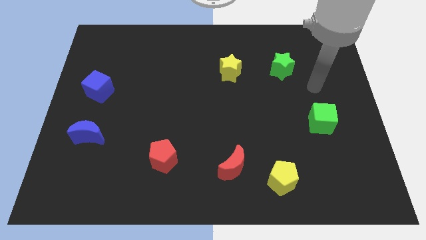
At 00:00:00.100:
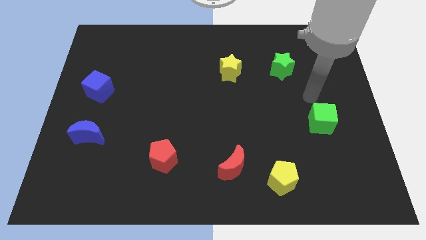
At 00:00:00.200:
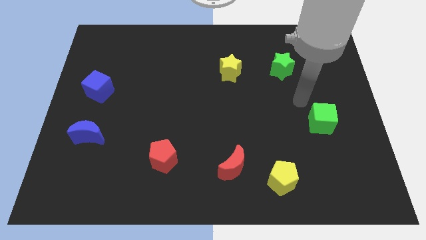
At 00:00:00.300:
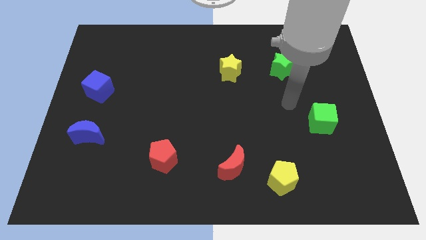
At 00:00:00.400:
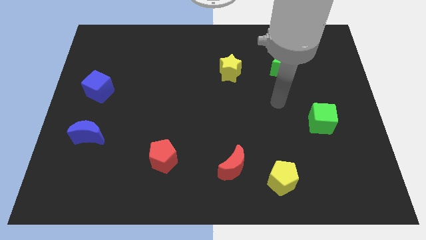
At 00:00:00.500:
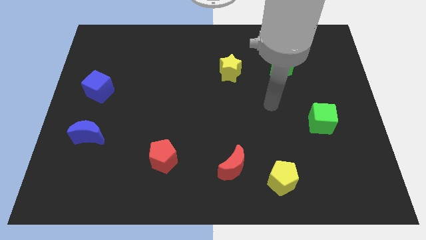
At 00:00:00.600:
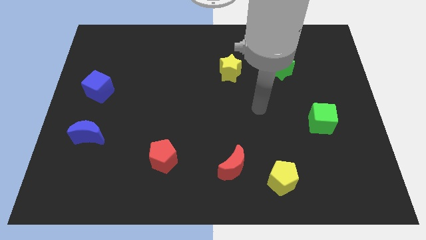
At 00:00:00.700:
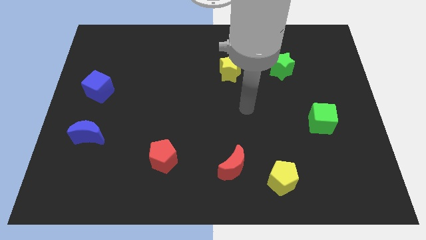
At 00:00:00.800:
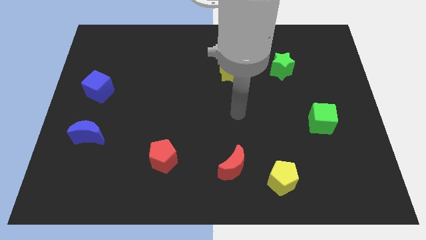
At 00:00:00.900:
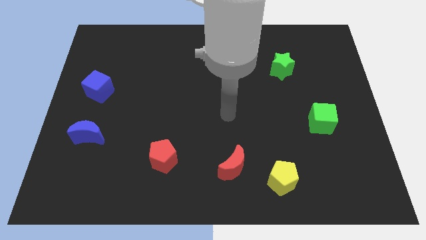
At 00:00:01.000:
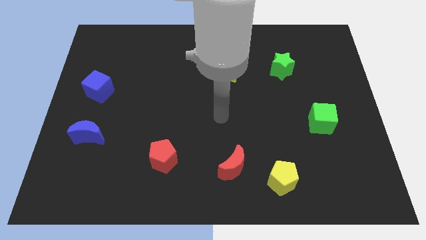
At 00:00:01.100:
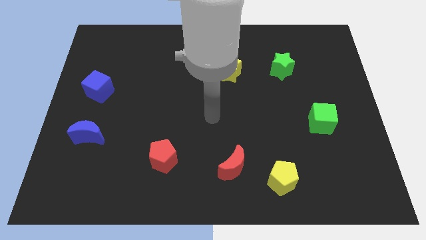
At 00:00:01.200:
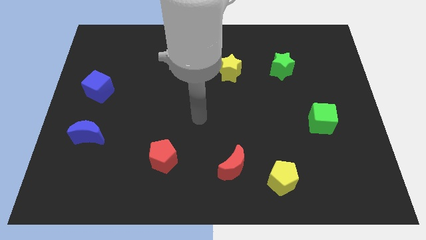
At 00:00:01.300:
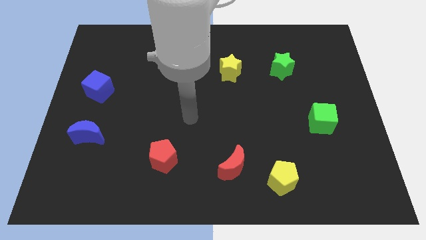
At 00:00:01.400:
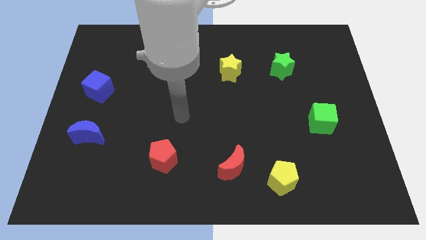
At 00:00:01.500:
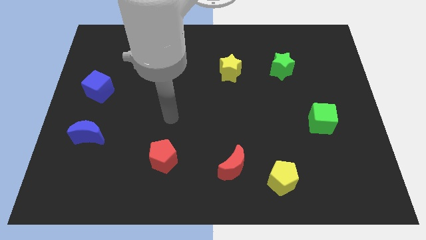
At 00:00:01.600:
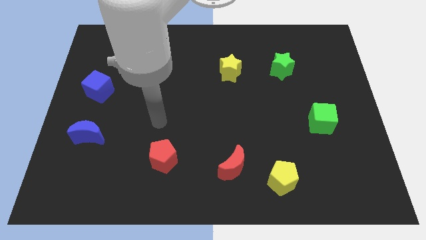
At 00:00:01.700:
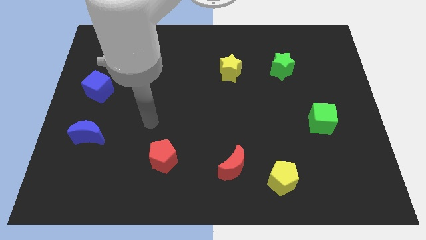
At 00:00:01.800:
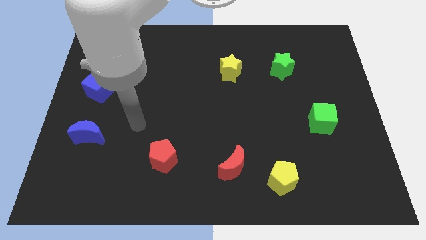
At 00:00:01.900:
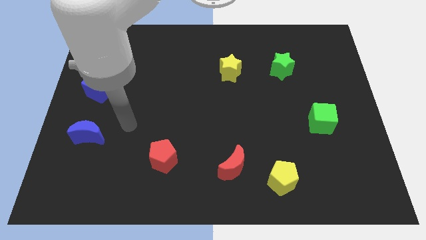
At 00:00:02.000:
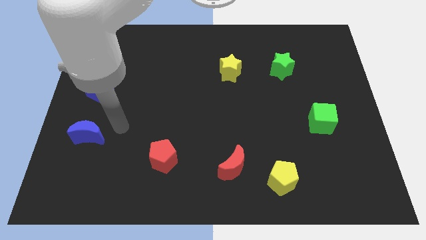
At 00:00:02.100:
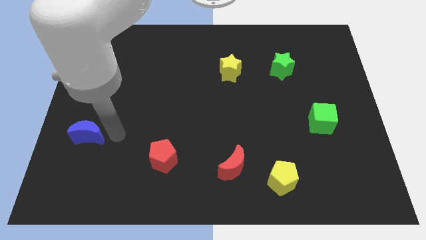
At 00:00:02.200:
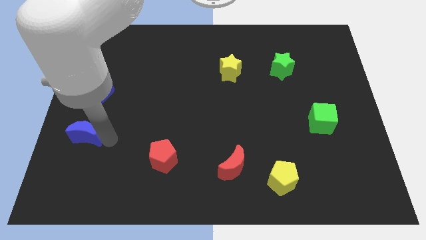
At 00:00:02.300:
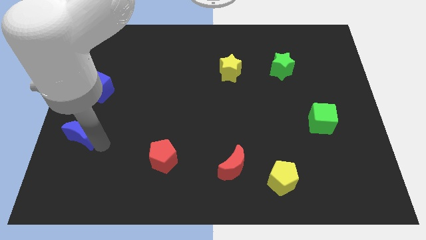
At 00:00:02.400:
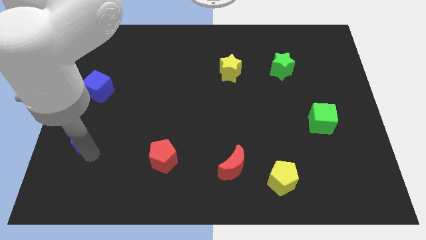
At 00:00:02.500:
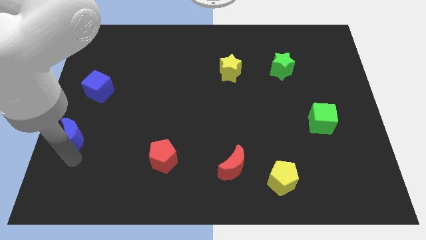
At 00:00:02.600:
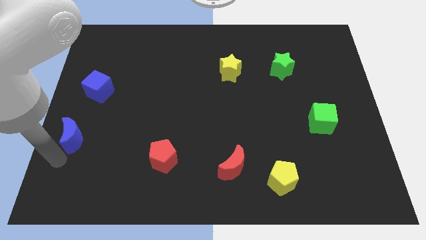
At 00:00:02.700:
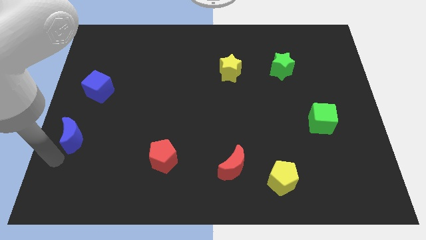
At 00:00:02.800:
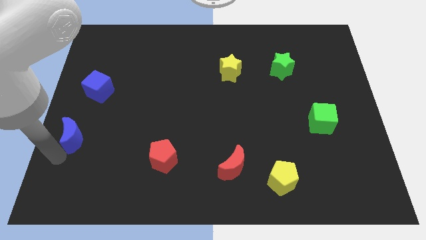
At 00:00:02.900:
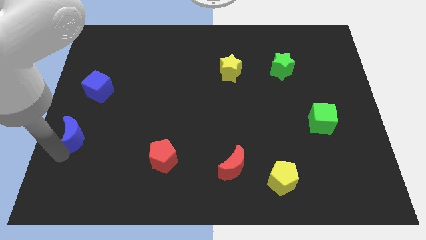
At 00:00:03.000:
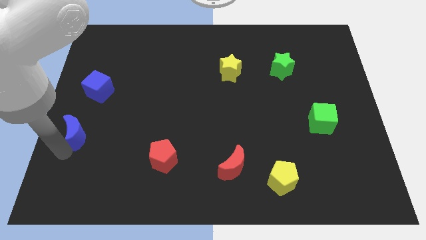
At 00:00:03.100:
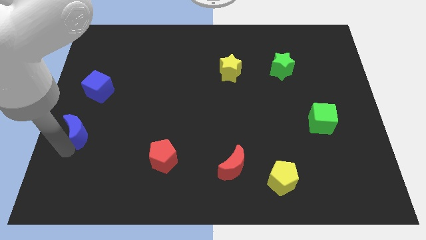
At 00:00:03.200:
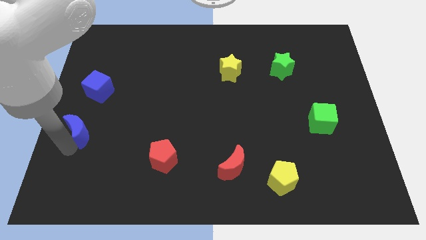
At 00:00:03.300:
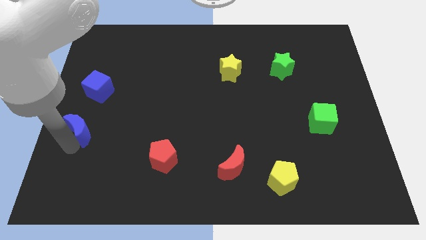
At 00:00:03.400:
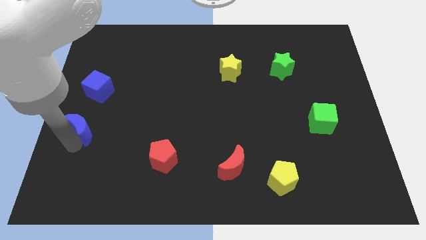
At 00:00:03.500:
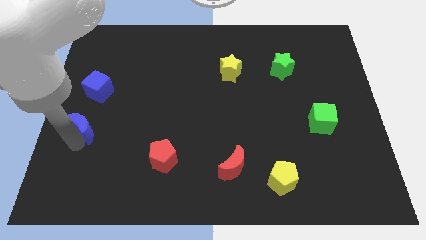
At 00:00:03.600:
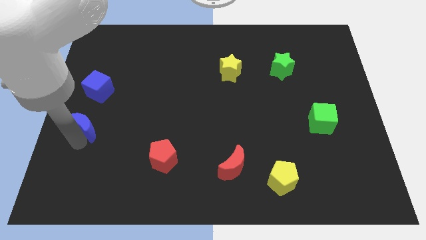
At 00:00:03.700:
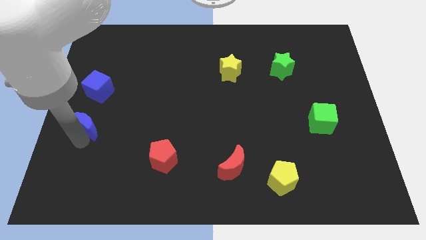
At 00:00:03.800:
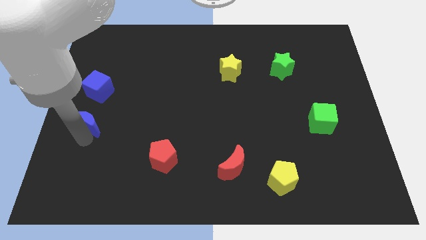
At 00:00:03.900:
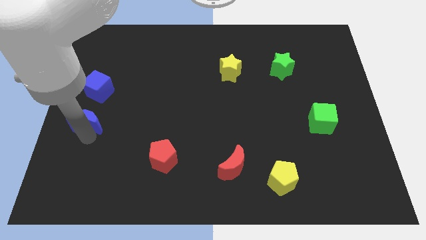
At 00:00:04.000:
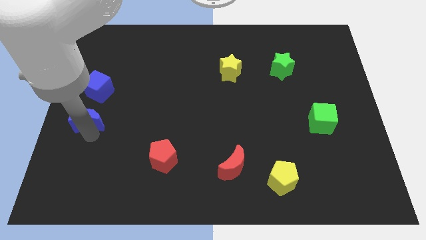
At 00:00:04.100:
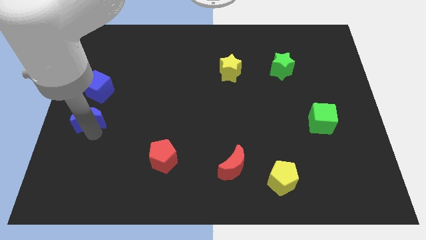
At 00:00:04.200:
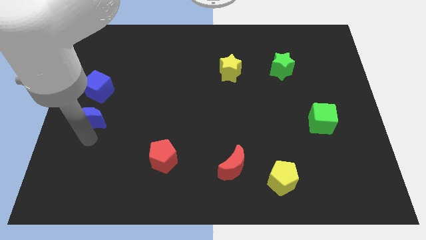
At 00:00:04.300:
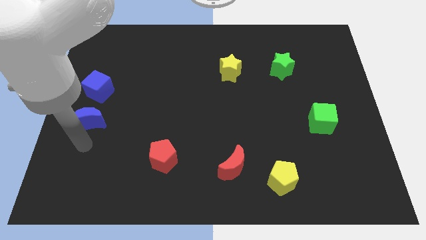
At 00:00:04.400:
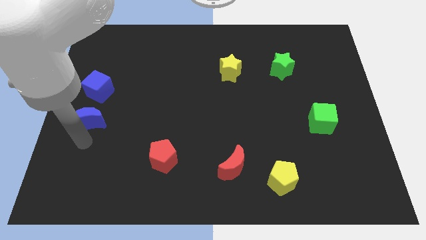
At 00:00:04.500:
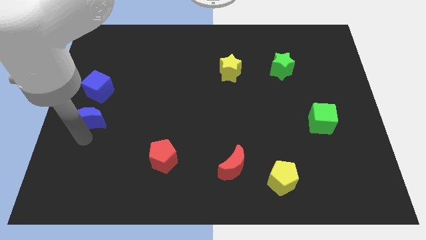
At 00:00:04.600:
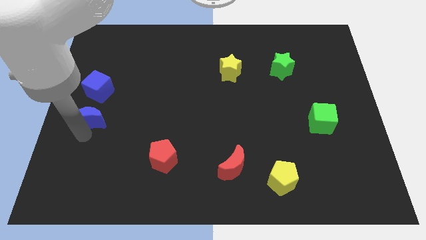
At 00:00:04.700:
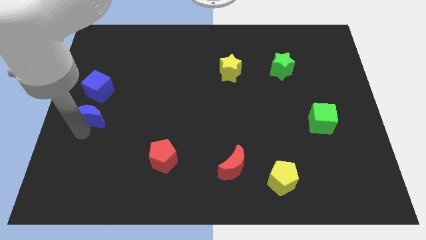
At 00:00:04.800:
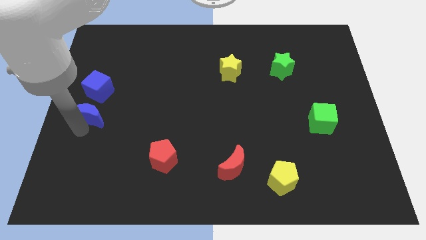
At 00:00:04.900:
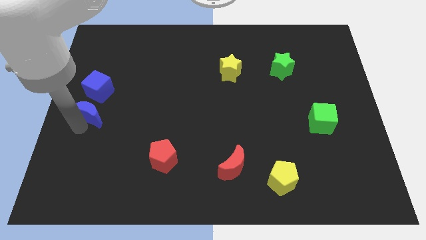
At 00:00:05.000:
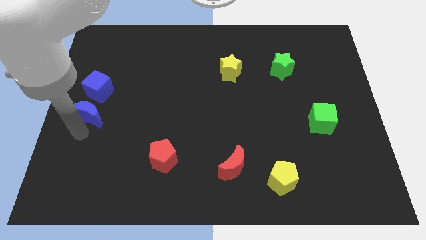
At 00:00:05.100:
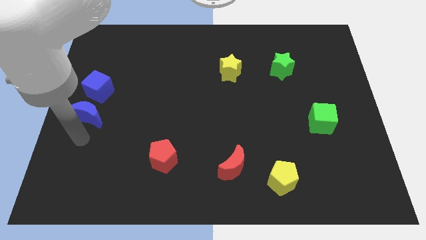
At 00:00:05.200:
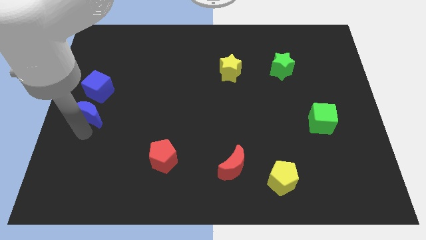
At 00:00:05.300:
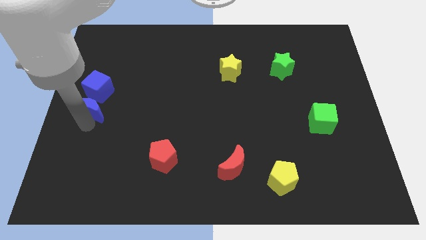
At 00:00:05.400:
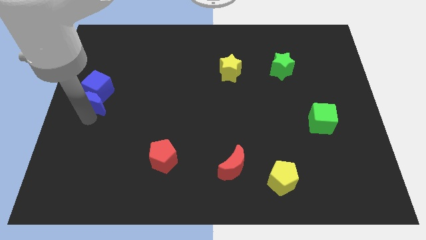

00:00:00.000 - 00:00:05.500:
move the blue moon close to the blue cube

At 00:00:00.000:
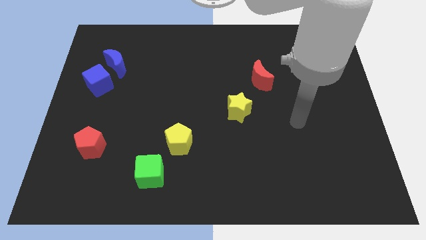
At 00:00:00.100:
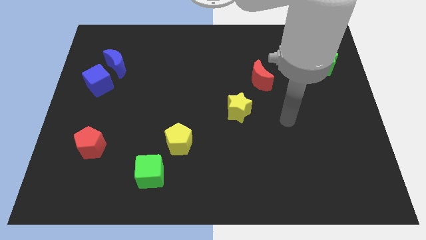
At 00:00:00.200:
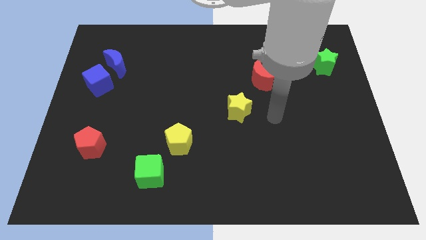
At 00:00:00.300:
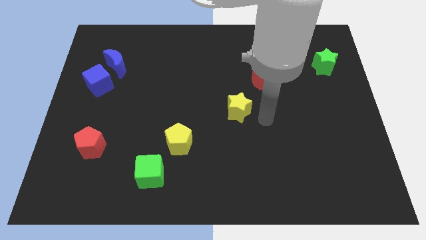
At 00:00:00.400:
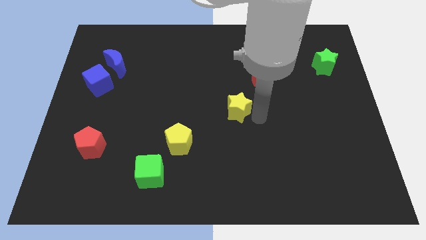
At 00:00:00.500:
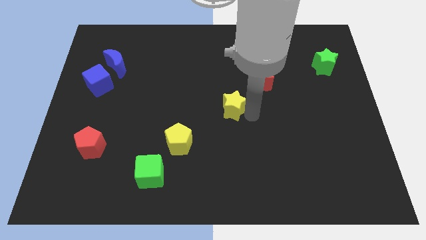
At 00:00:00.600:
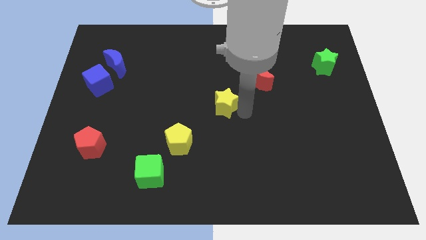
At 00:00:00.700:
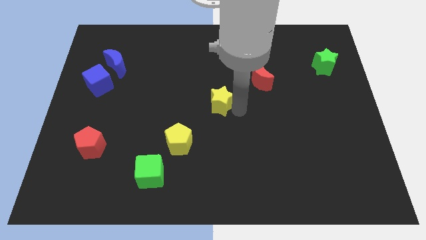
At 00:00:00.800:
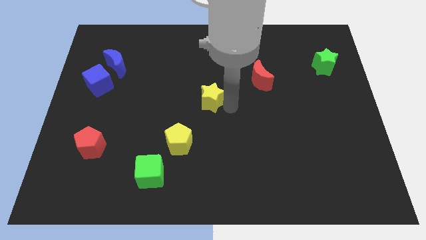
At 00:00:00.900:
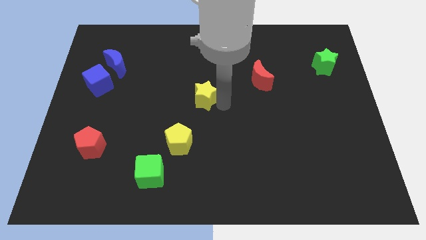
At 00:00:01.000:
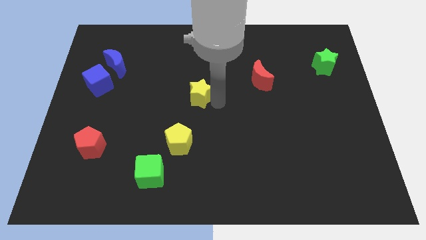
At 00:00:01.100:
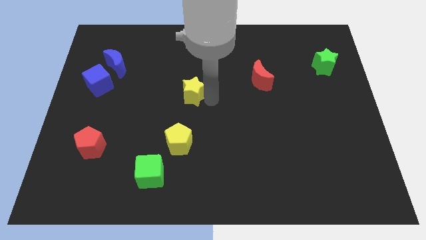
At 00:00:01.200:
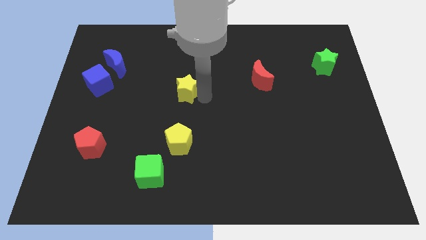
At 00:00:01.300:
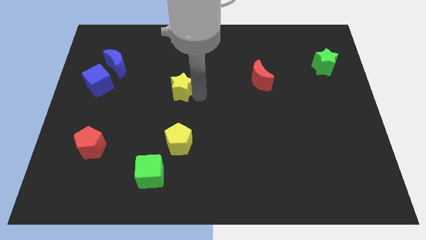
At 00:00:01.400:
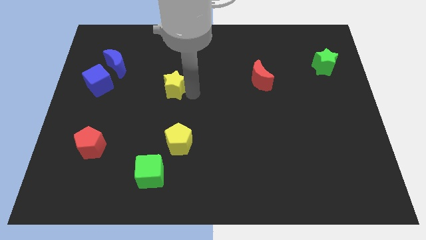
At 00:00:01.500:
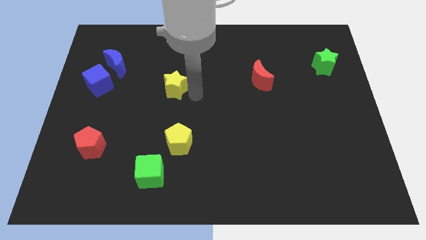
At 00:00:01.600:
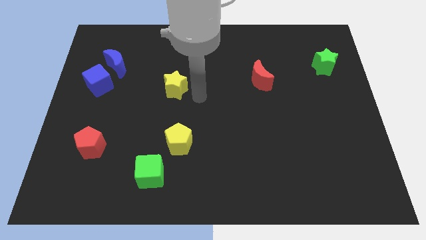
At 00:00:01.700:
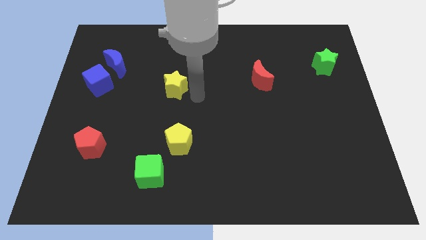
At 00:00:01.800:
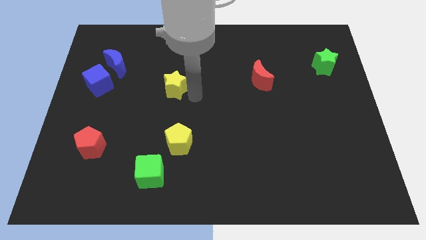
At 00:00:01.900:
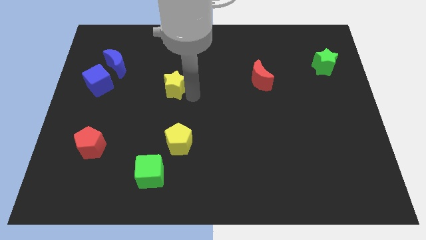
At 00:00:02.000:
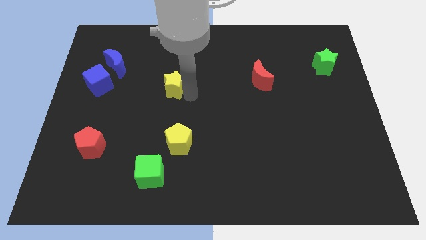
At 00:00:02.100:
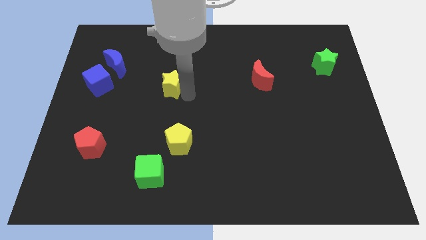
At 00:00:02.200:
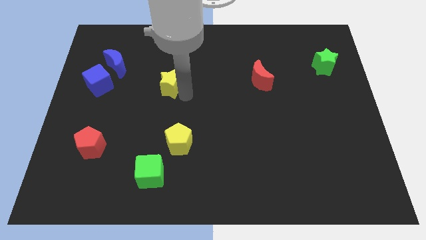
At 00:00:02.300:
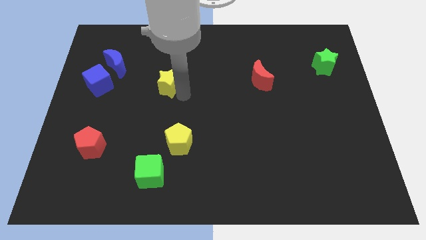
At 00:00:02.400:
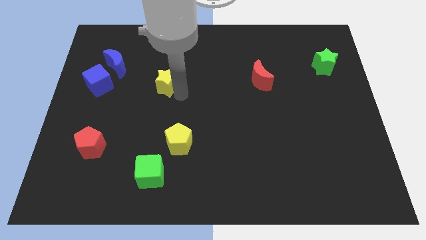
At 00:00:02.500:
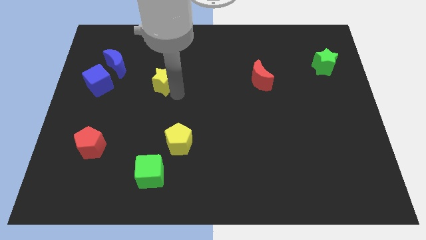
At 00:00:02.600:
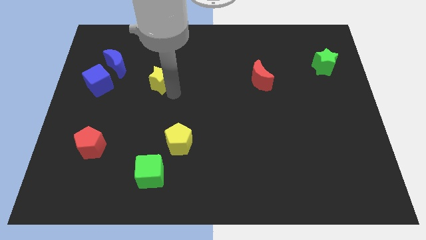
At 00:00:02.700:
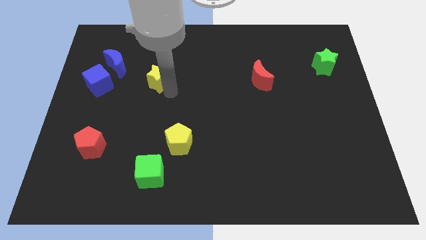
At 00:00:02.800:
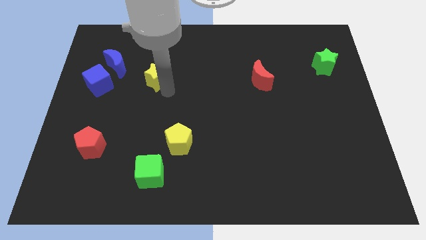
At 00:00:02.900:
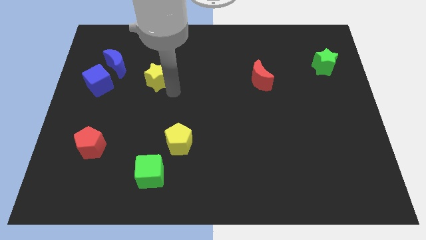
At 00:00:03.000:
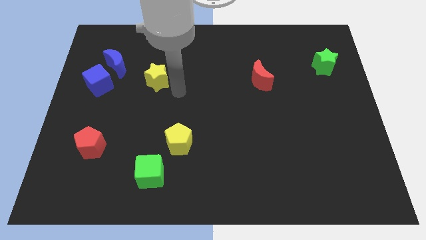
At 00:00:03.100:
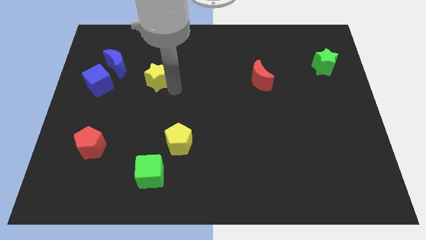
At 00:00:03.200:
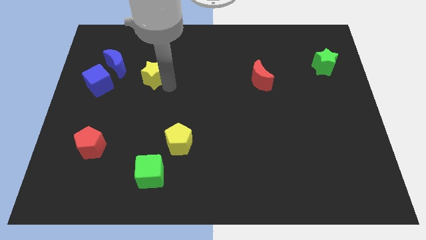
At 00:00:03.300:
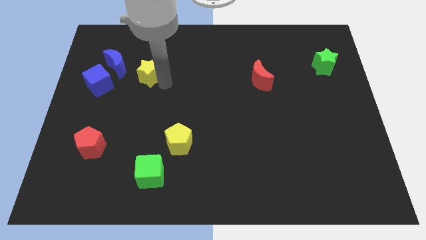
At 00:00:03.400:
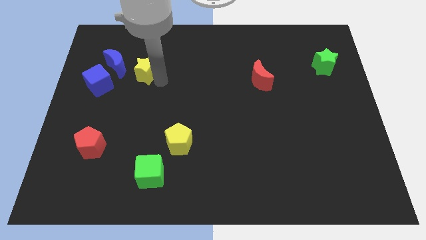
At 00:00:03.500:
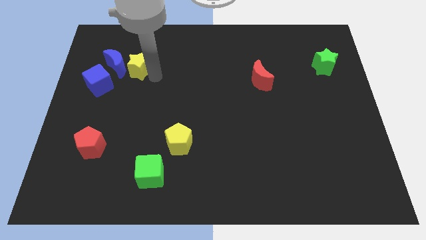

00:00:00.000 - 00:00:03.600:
move the yellow star to the blue moon
